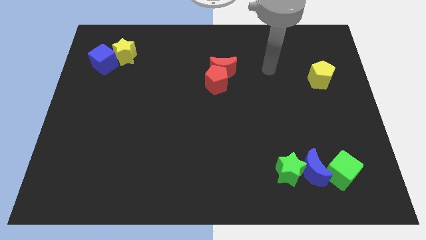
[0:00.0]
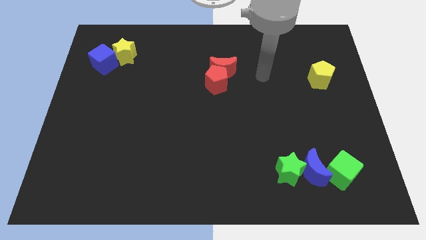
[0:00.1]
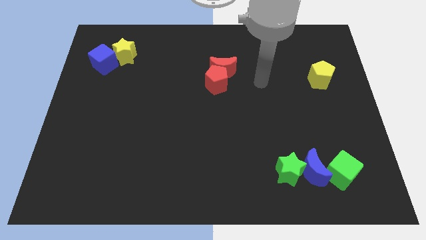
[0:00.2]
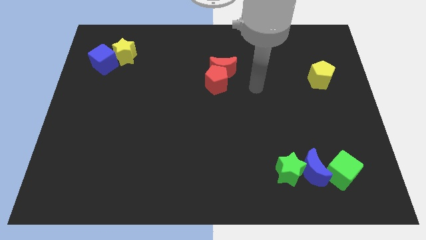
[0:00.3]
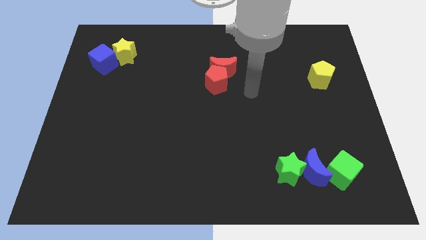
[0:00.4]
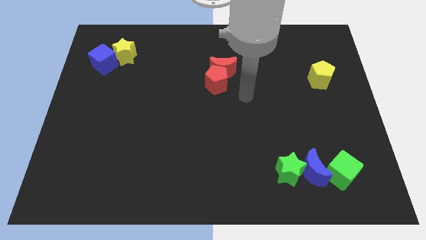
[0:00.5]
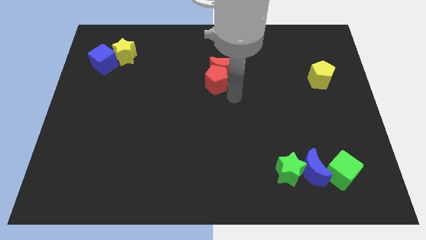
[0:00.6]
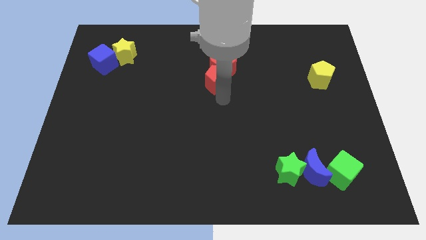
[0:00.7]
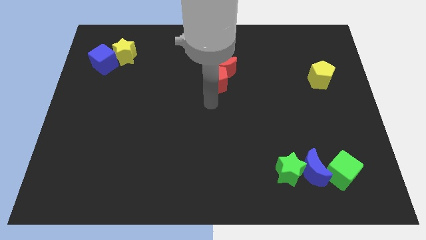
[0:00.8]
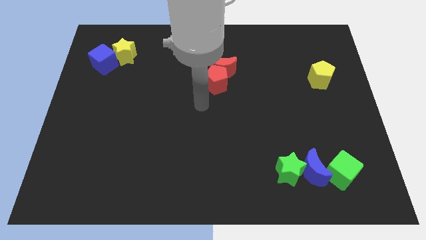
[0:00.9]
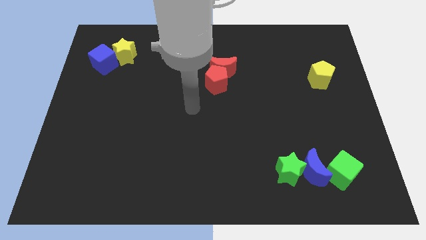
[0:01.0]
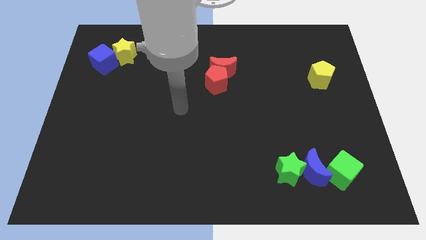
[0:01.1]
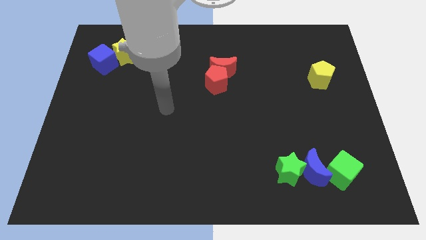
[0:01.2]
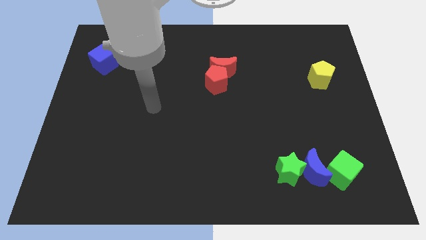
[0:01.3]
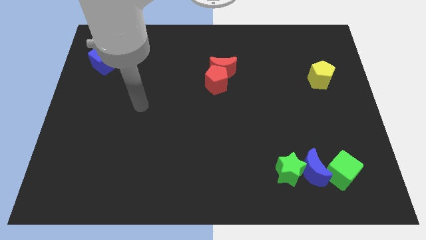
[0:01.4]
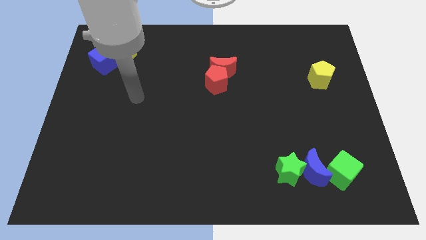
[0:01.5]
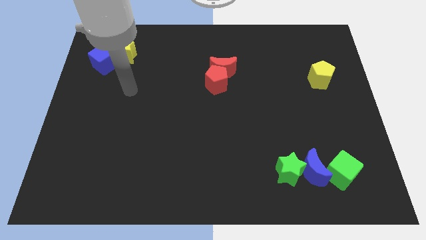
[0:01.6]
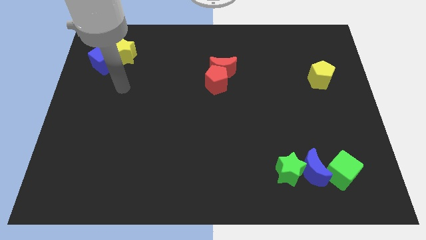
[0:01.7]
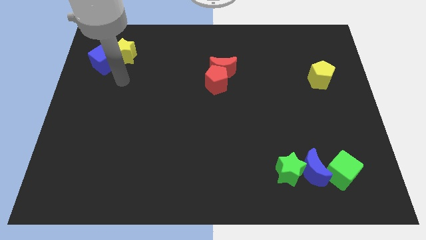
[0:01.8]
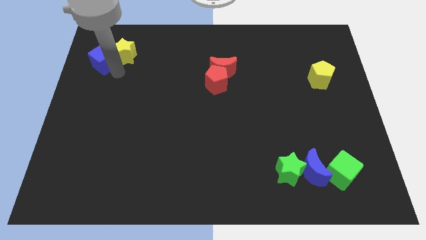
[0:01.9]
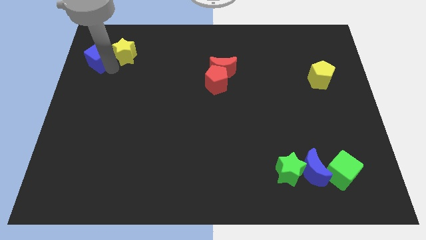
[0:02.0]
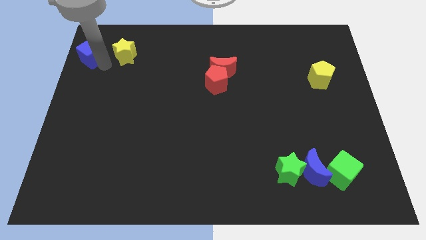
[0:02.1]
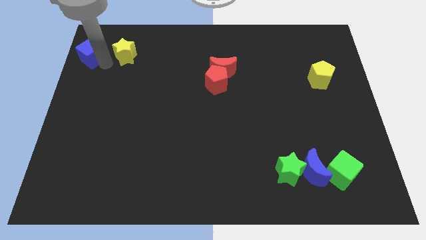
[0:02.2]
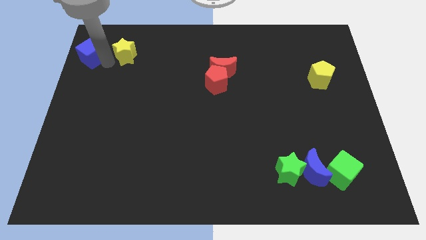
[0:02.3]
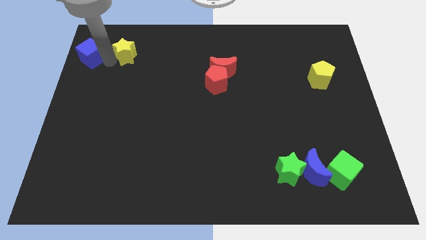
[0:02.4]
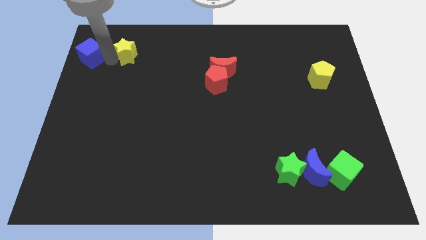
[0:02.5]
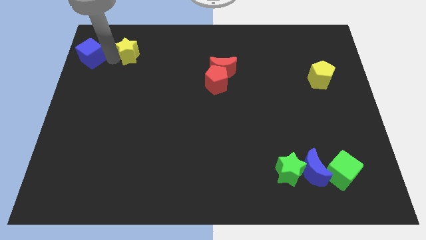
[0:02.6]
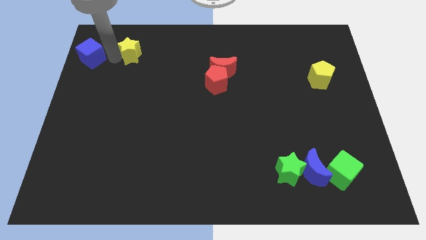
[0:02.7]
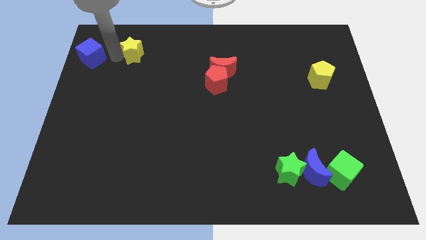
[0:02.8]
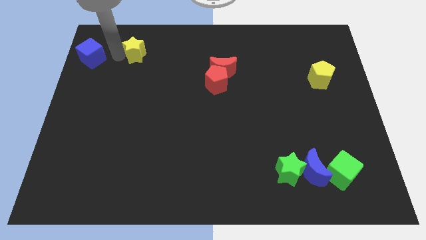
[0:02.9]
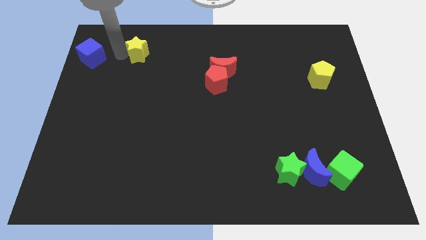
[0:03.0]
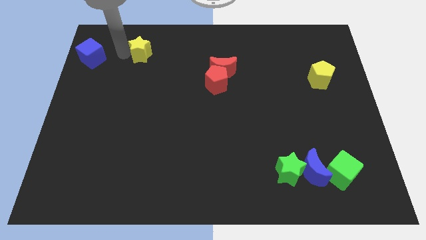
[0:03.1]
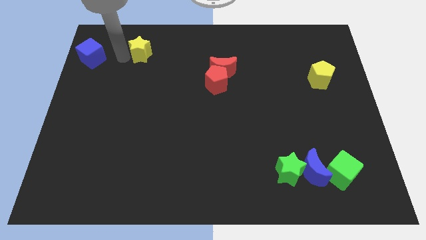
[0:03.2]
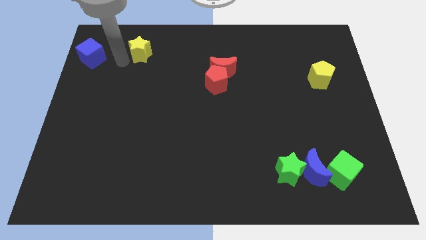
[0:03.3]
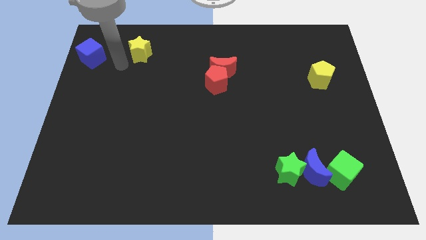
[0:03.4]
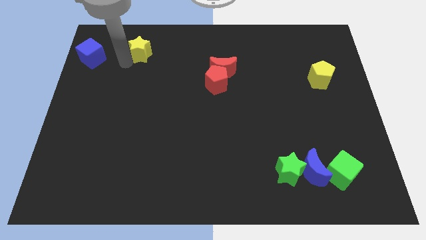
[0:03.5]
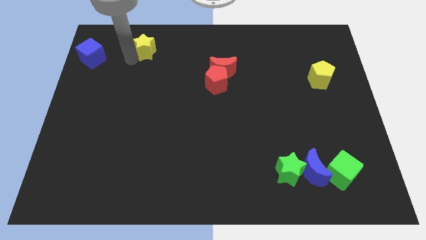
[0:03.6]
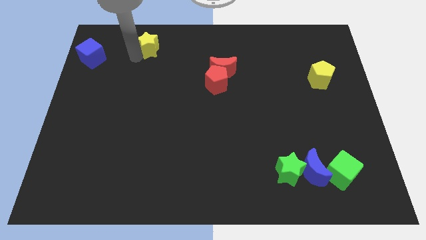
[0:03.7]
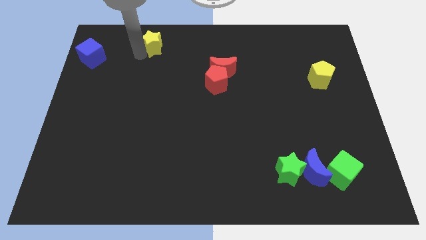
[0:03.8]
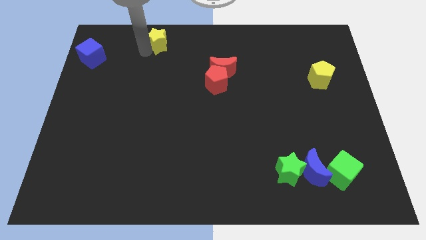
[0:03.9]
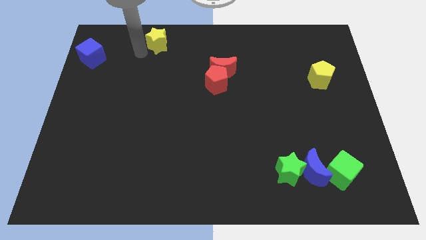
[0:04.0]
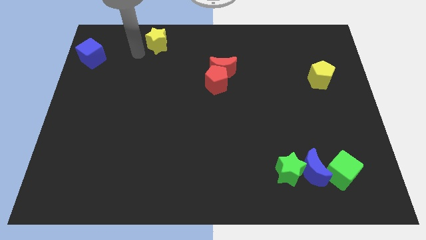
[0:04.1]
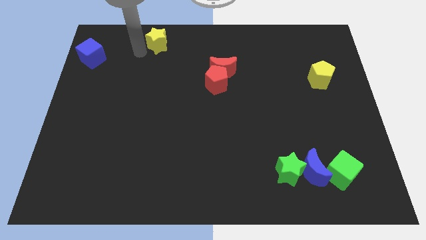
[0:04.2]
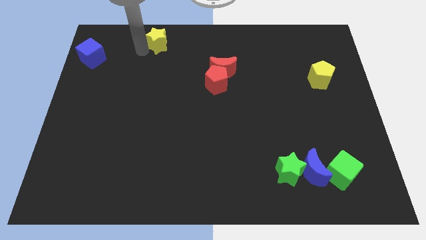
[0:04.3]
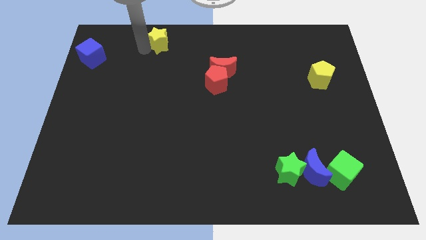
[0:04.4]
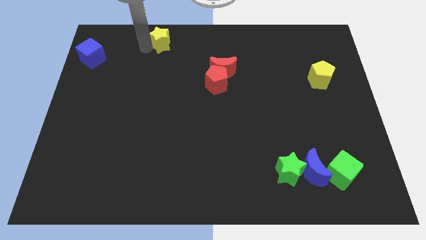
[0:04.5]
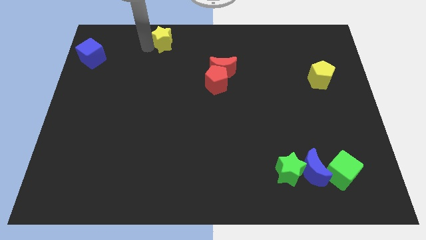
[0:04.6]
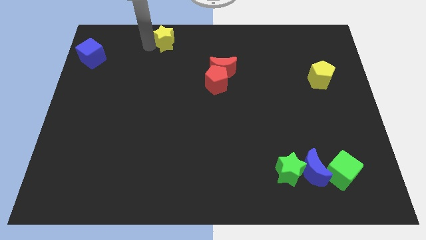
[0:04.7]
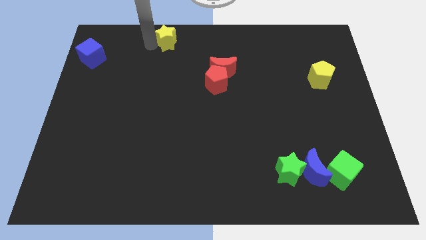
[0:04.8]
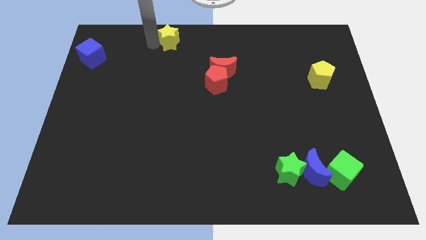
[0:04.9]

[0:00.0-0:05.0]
put the yellow star to the top

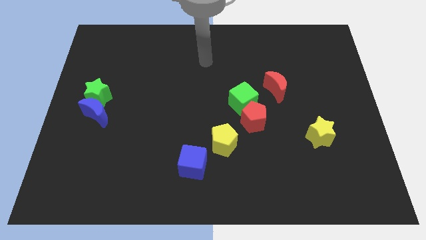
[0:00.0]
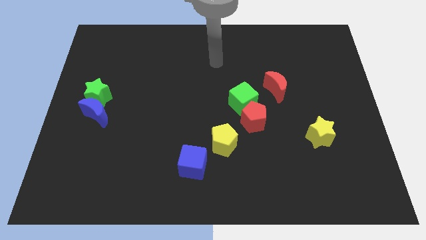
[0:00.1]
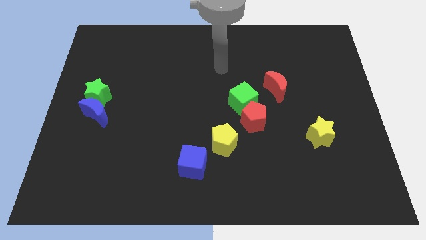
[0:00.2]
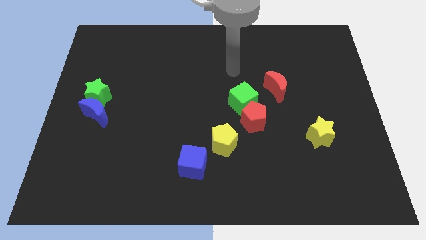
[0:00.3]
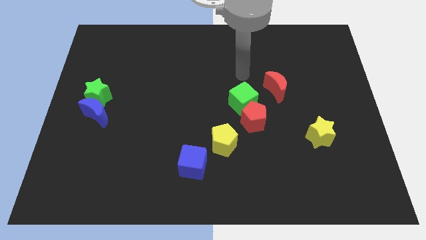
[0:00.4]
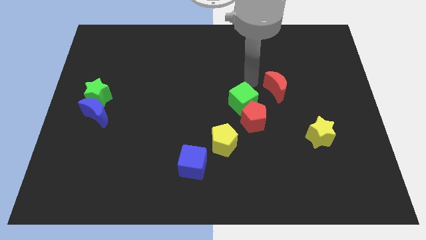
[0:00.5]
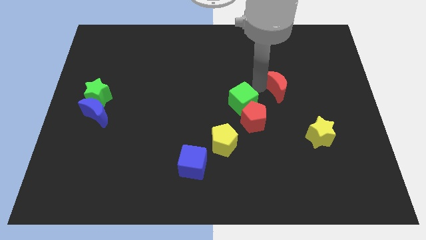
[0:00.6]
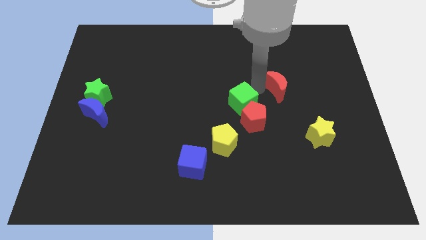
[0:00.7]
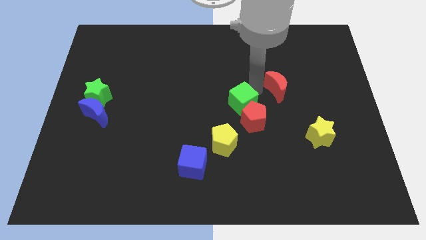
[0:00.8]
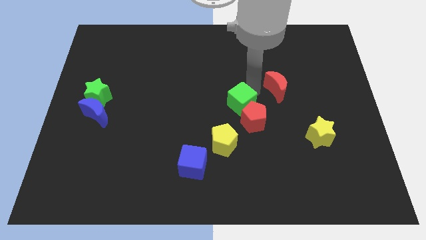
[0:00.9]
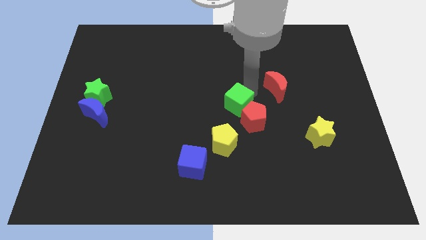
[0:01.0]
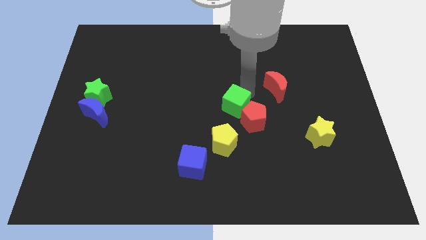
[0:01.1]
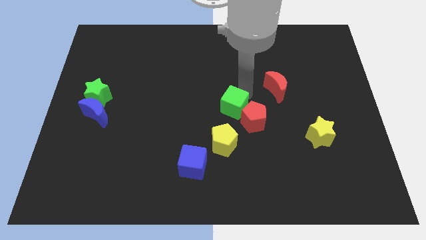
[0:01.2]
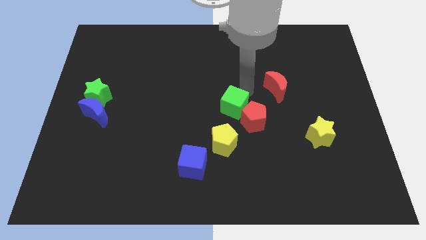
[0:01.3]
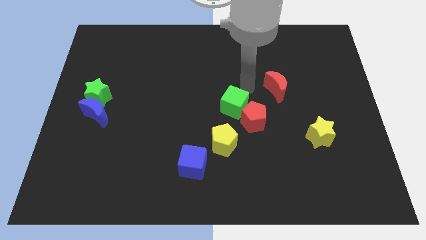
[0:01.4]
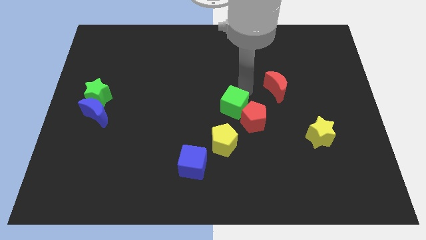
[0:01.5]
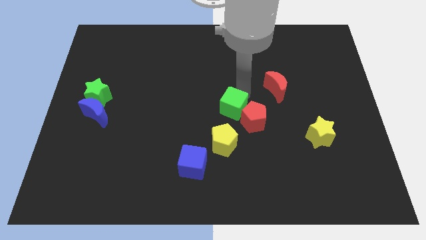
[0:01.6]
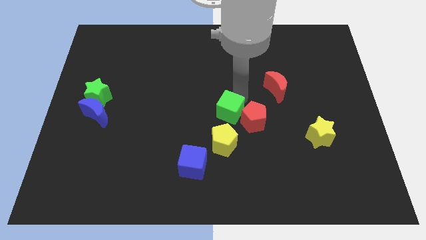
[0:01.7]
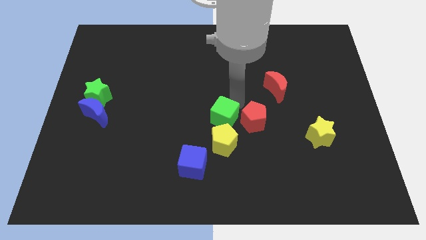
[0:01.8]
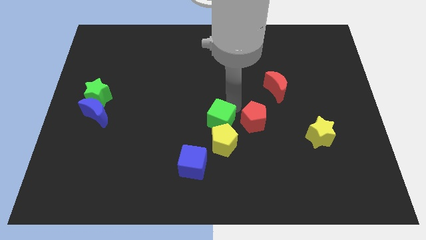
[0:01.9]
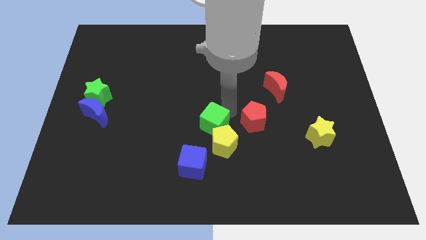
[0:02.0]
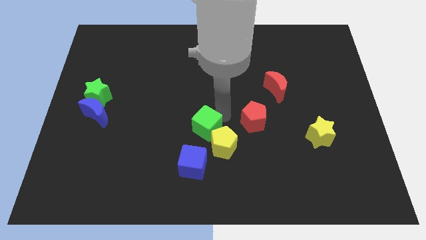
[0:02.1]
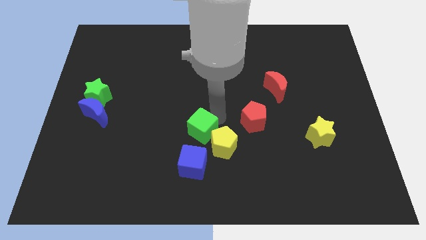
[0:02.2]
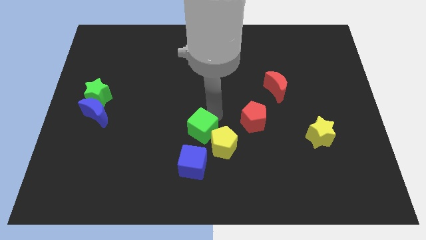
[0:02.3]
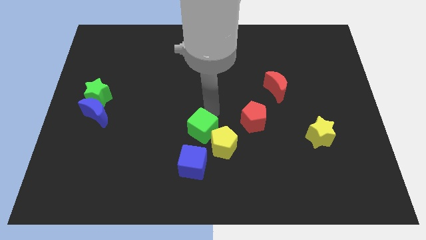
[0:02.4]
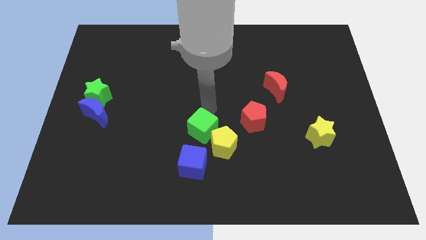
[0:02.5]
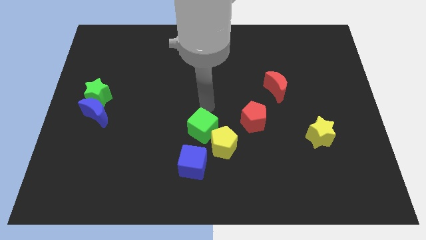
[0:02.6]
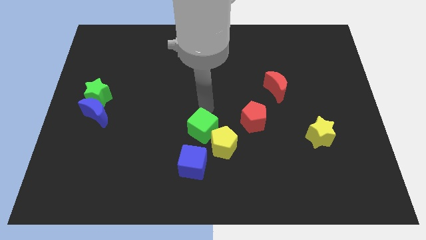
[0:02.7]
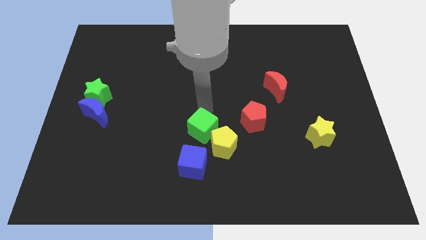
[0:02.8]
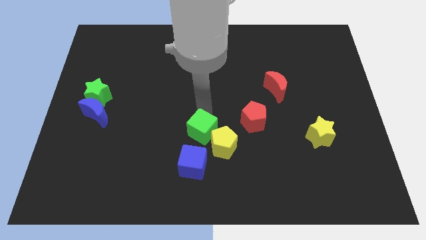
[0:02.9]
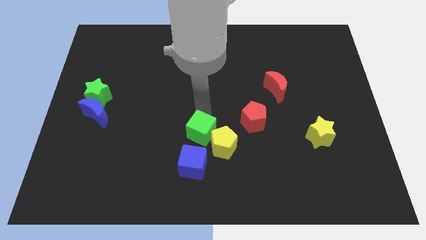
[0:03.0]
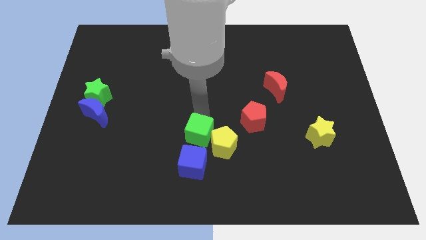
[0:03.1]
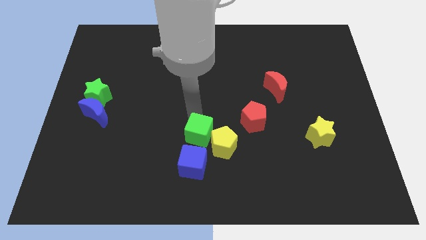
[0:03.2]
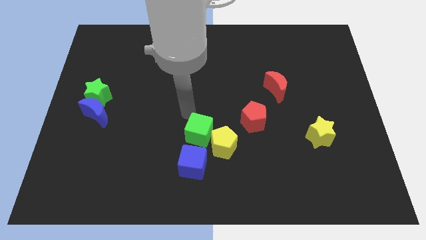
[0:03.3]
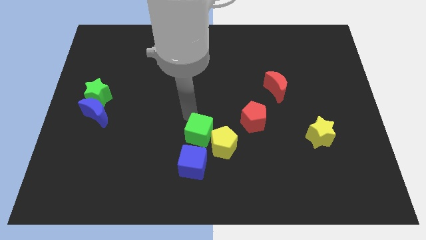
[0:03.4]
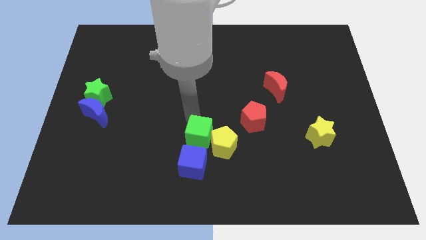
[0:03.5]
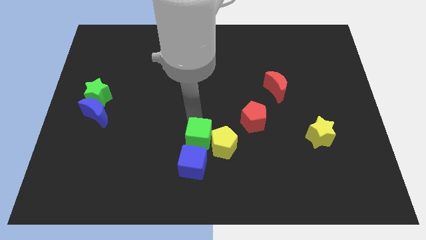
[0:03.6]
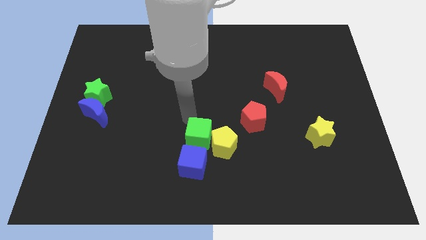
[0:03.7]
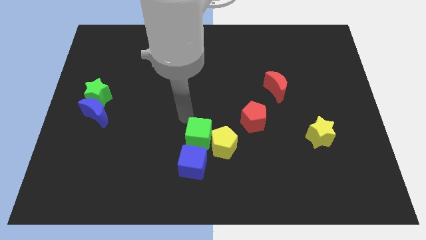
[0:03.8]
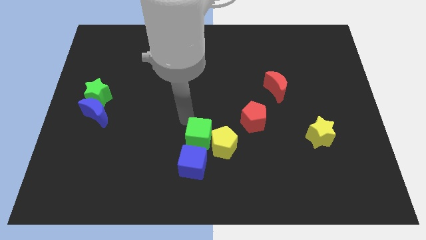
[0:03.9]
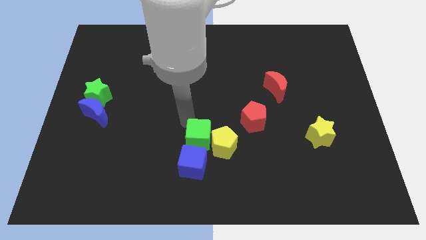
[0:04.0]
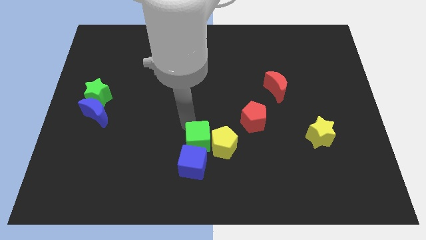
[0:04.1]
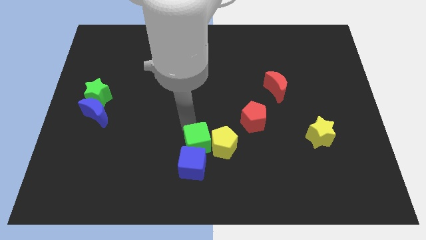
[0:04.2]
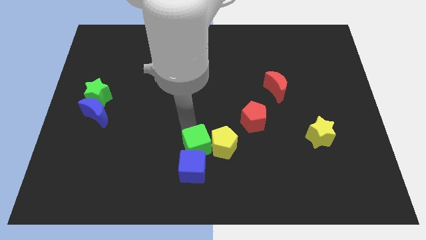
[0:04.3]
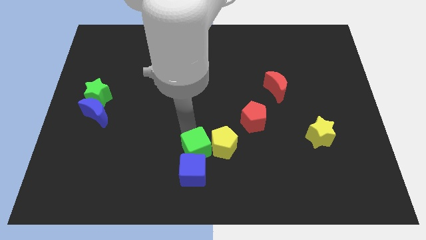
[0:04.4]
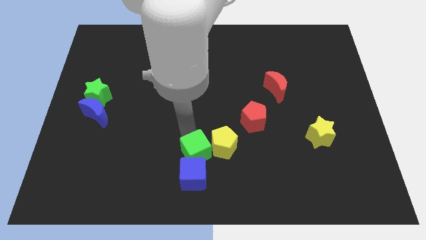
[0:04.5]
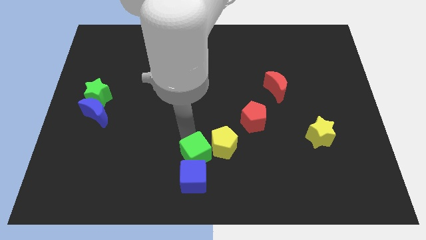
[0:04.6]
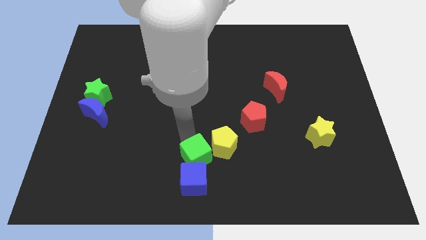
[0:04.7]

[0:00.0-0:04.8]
put the green cube to the bottom side
